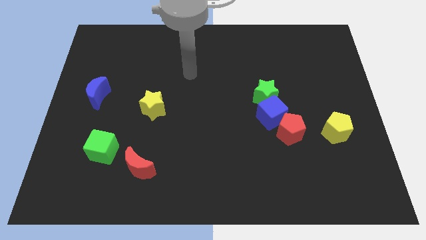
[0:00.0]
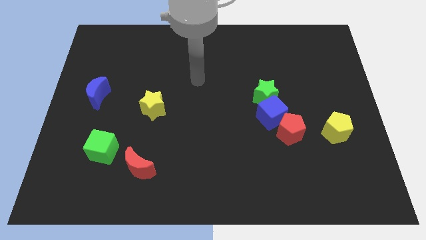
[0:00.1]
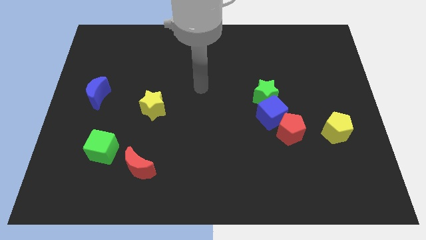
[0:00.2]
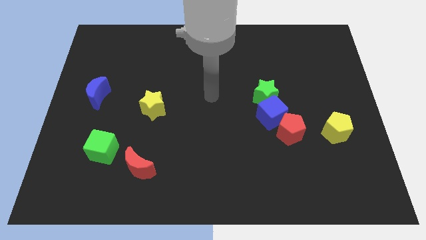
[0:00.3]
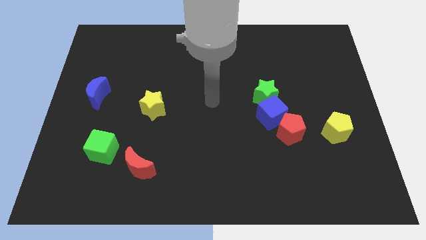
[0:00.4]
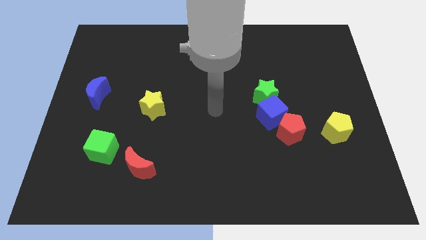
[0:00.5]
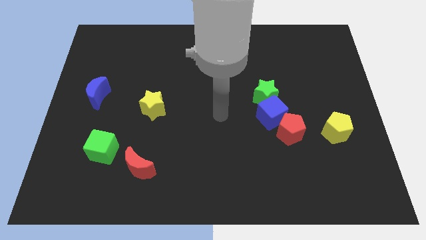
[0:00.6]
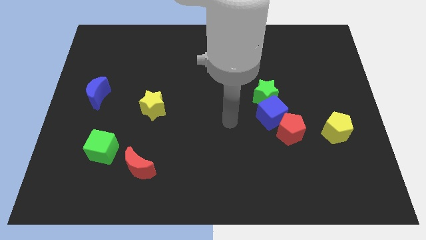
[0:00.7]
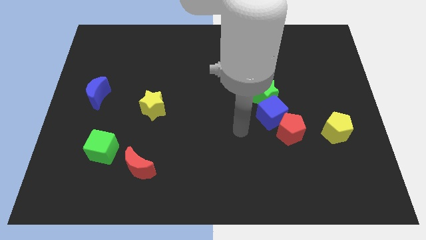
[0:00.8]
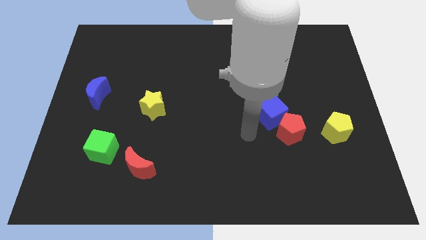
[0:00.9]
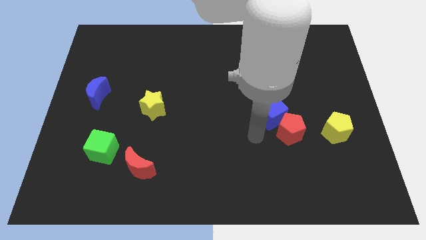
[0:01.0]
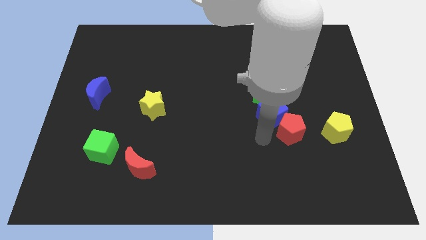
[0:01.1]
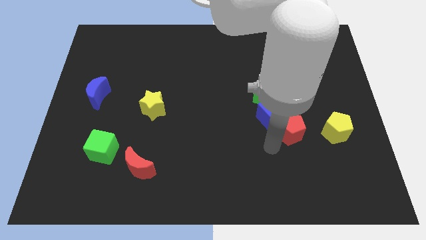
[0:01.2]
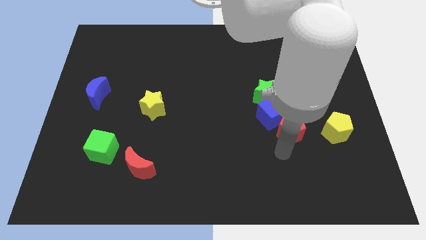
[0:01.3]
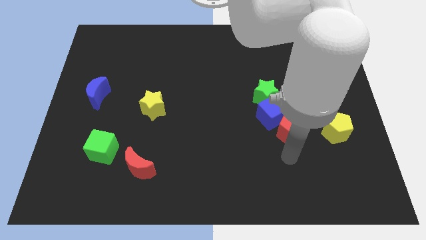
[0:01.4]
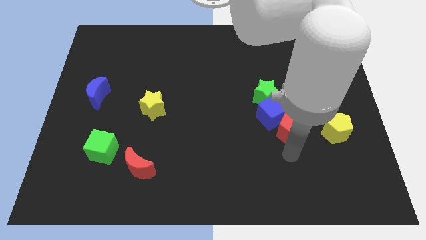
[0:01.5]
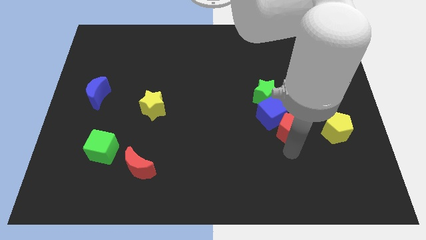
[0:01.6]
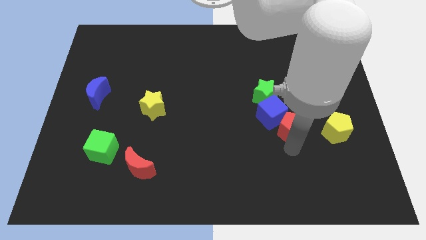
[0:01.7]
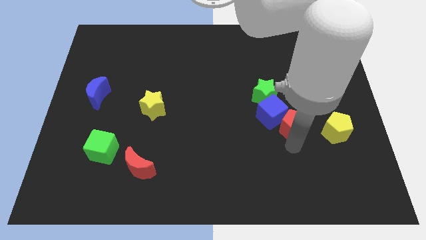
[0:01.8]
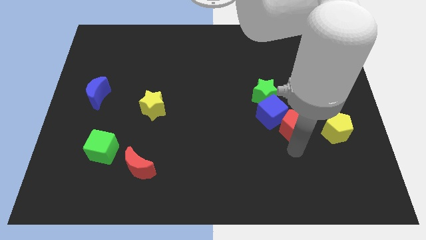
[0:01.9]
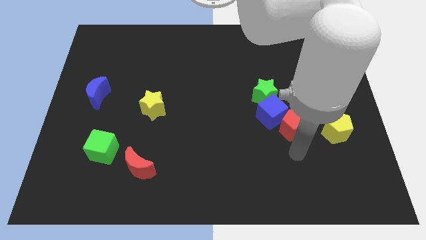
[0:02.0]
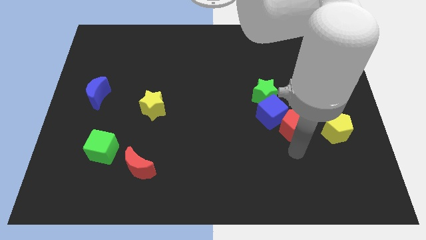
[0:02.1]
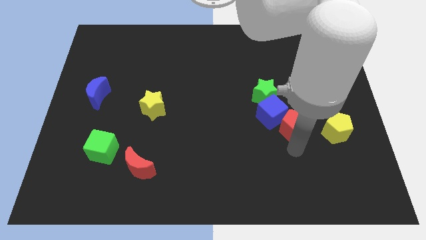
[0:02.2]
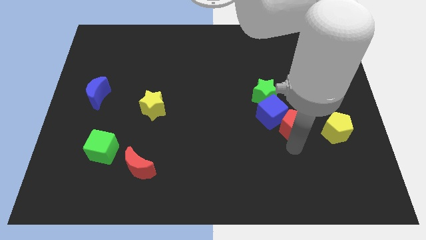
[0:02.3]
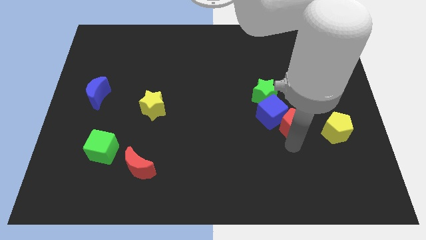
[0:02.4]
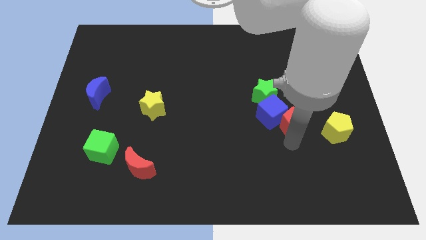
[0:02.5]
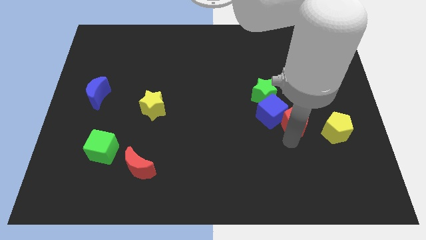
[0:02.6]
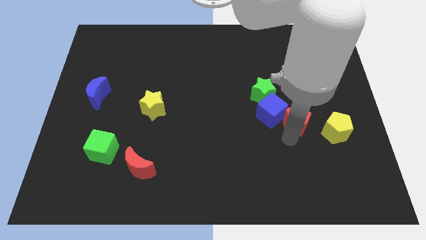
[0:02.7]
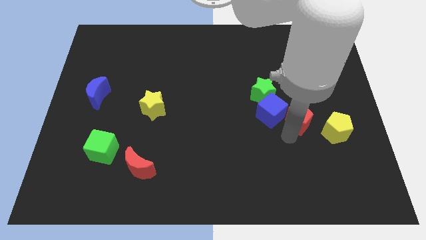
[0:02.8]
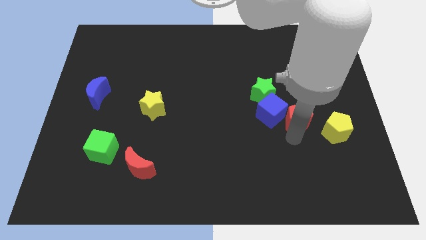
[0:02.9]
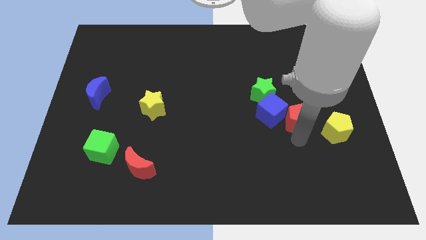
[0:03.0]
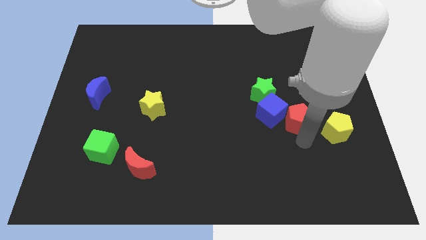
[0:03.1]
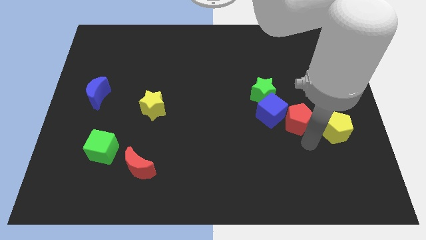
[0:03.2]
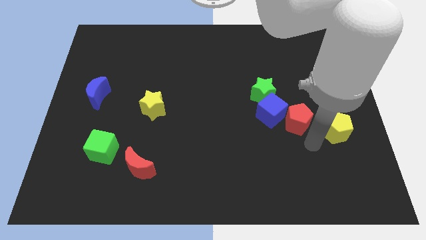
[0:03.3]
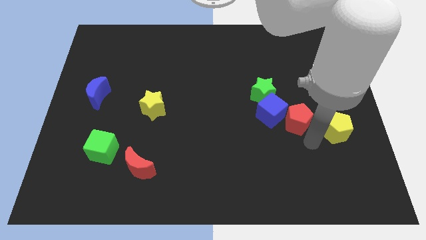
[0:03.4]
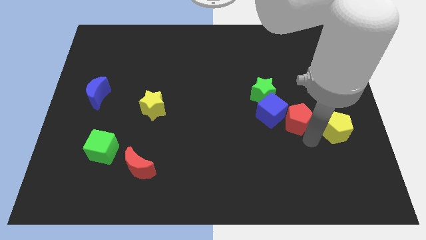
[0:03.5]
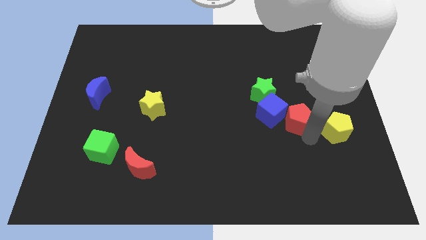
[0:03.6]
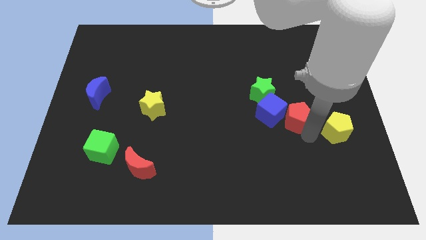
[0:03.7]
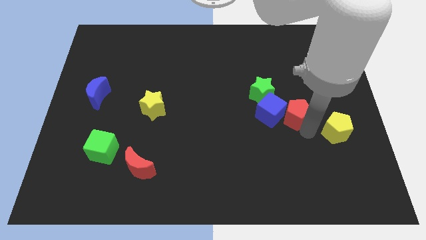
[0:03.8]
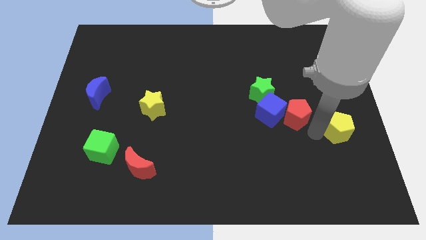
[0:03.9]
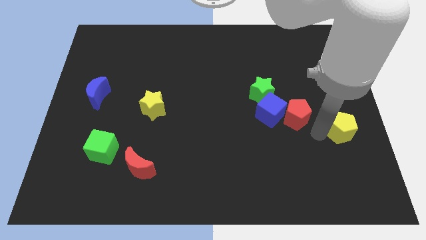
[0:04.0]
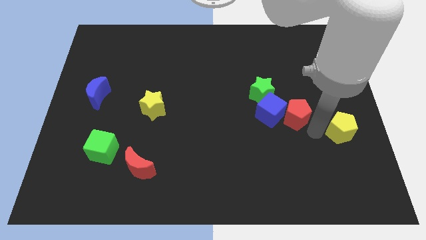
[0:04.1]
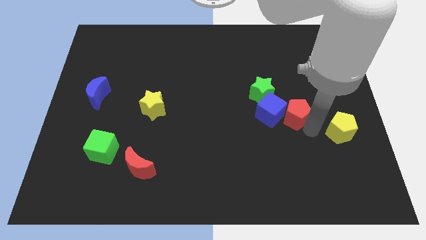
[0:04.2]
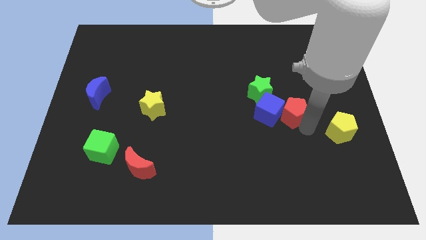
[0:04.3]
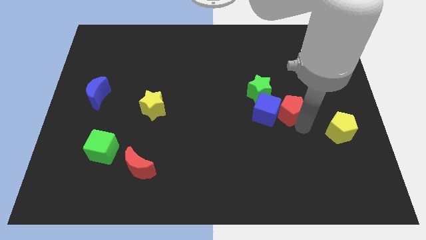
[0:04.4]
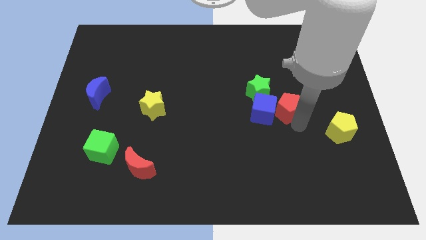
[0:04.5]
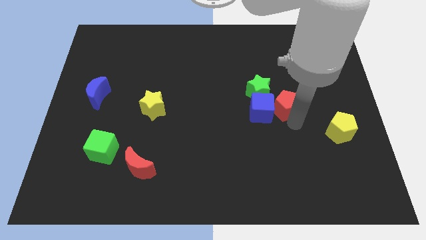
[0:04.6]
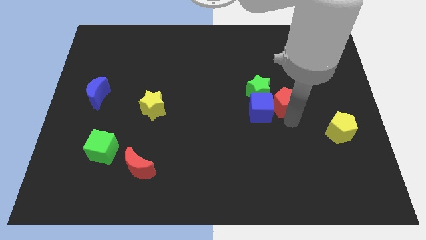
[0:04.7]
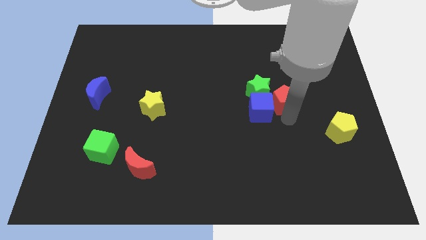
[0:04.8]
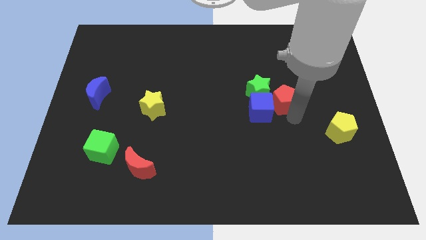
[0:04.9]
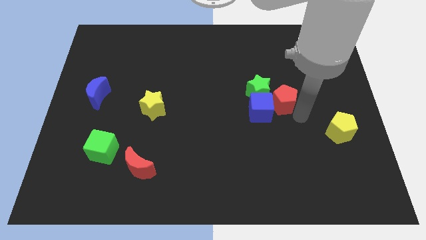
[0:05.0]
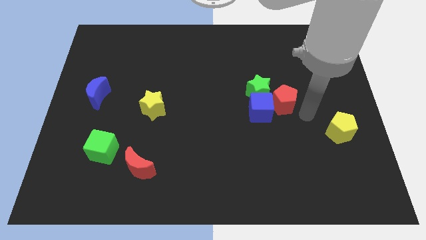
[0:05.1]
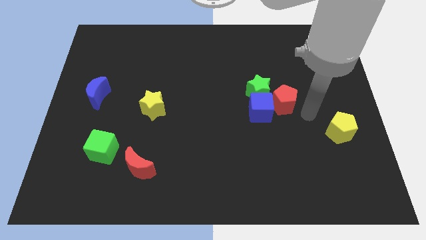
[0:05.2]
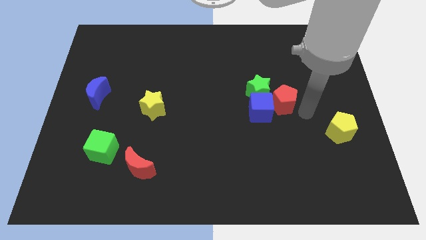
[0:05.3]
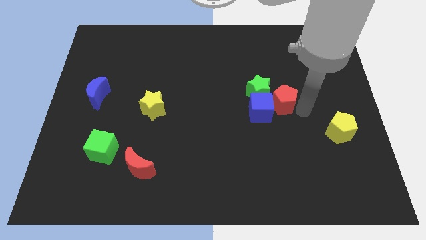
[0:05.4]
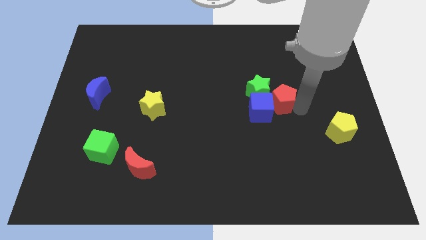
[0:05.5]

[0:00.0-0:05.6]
push the red pentagon towards the green star

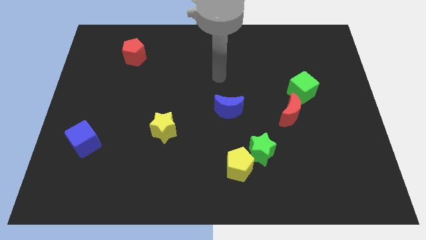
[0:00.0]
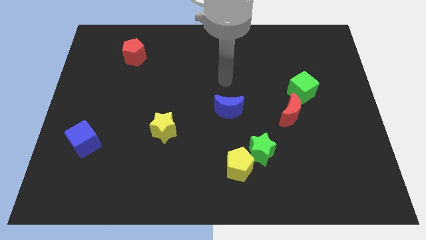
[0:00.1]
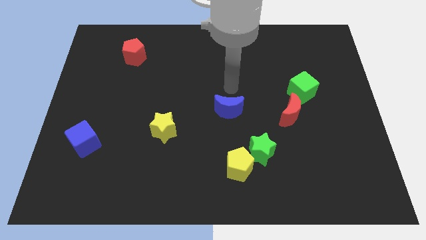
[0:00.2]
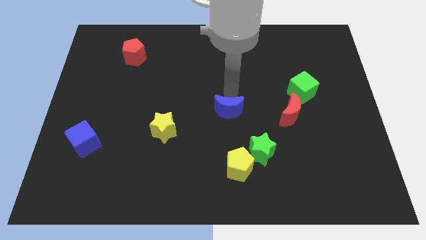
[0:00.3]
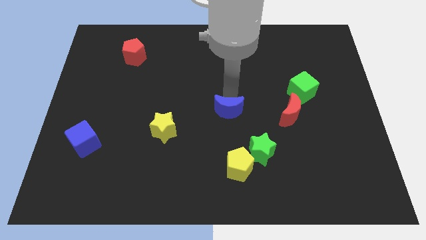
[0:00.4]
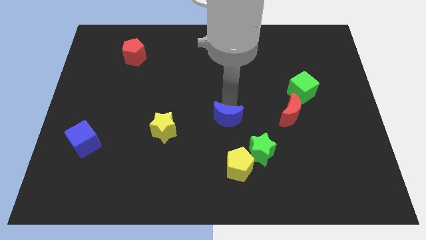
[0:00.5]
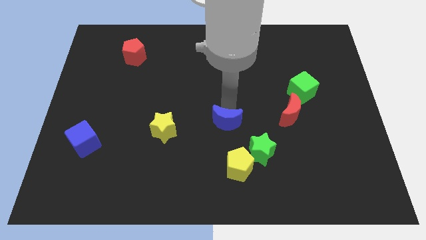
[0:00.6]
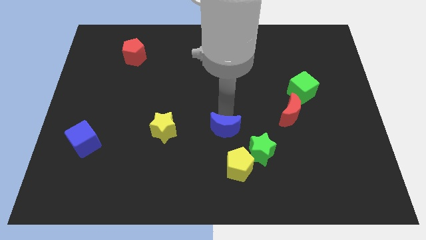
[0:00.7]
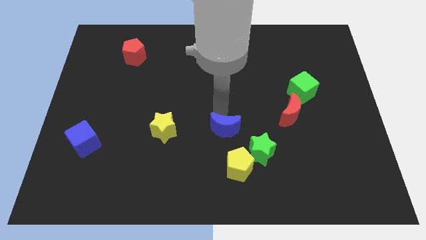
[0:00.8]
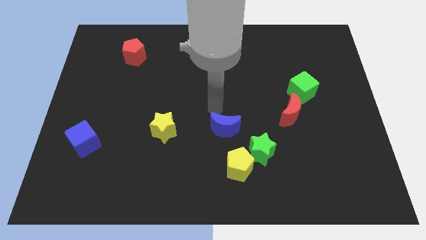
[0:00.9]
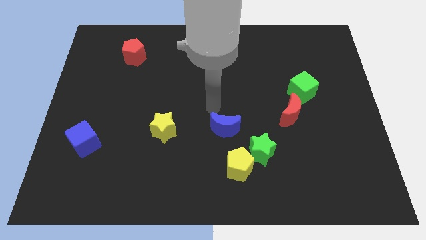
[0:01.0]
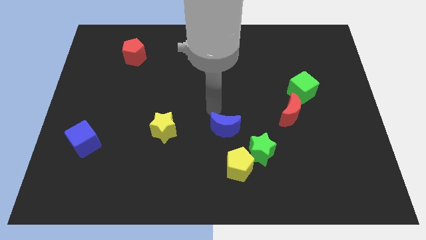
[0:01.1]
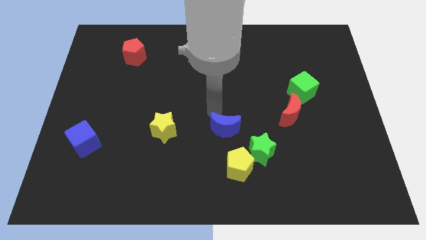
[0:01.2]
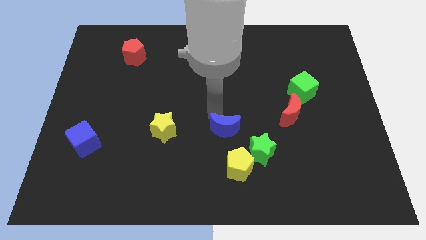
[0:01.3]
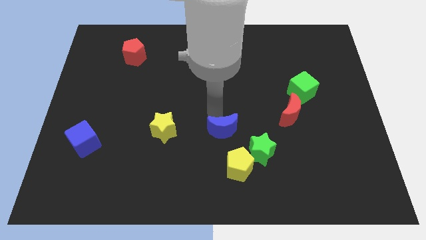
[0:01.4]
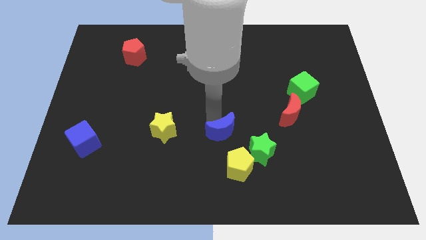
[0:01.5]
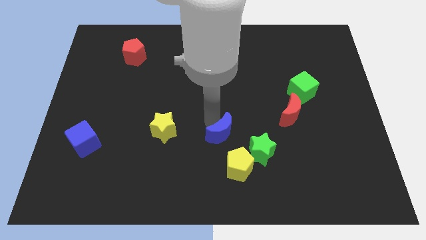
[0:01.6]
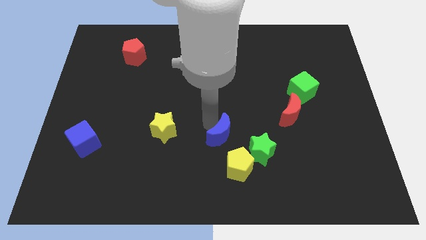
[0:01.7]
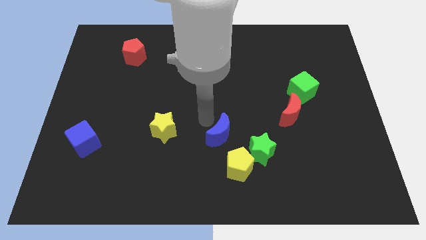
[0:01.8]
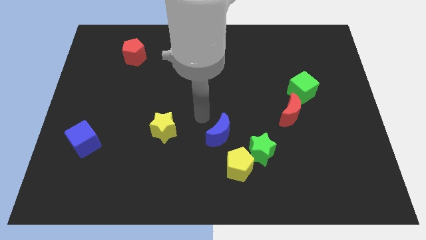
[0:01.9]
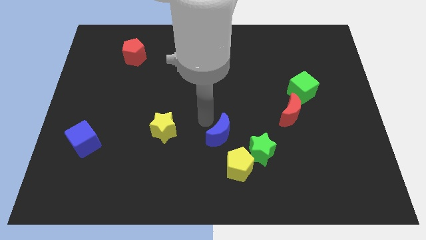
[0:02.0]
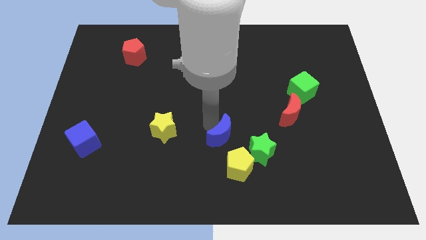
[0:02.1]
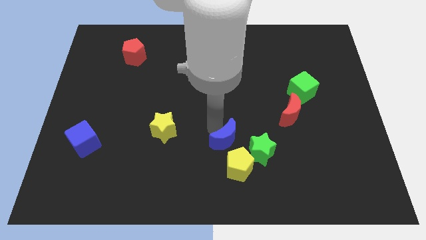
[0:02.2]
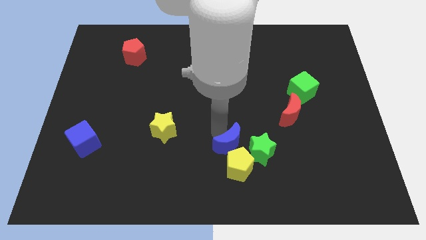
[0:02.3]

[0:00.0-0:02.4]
move the blue moon close to the yellow pentagon
